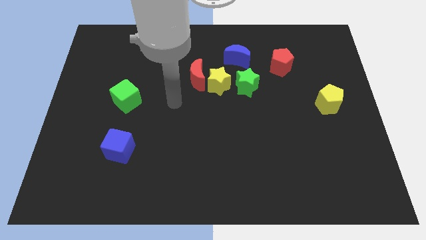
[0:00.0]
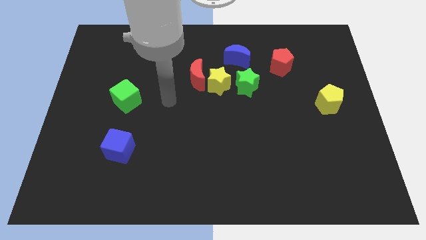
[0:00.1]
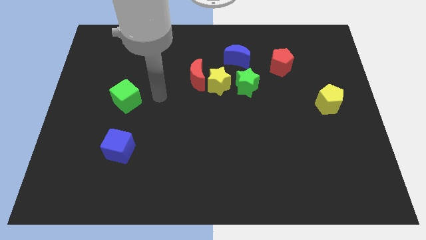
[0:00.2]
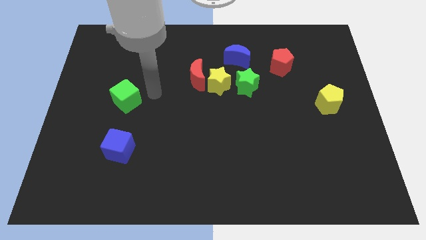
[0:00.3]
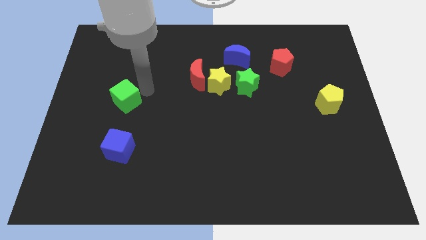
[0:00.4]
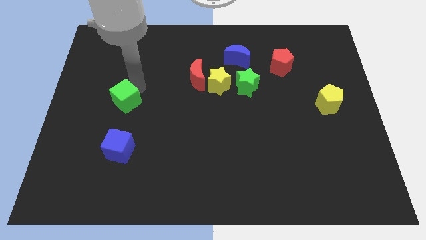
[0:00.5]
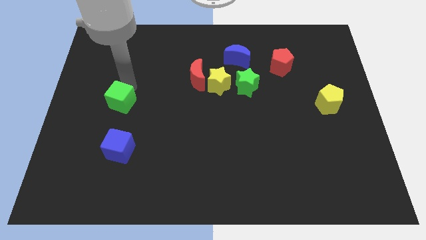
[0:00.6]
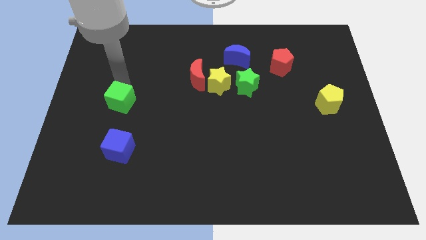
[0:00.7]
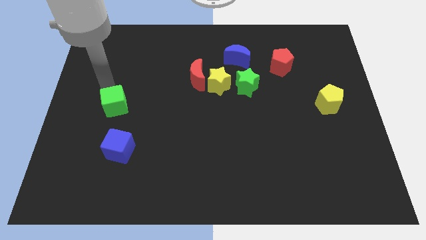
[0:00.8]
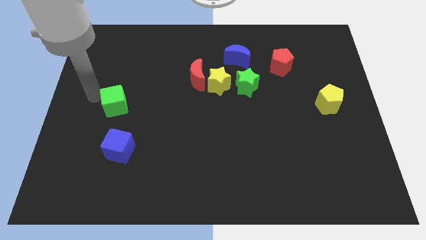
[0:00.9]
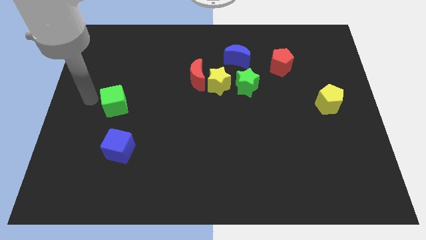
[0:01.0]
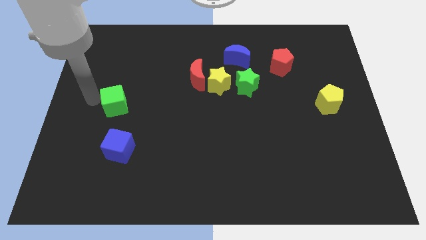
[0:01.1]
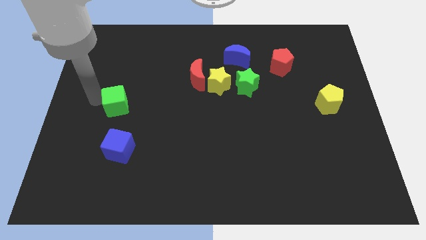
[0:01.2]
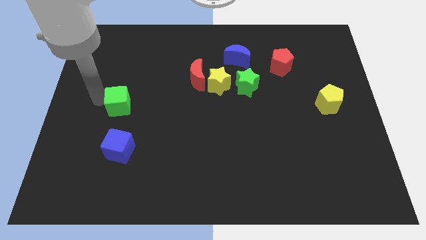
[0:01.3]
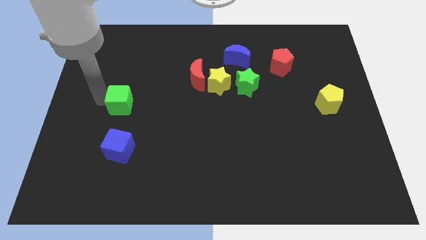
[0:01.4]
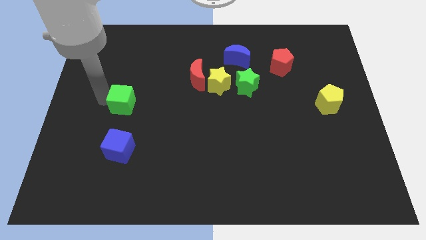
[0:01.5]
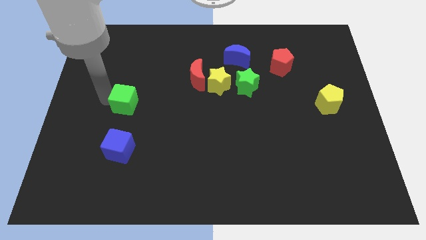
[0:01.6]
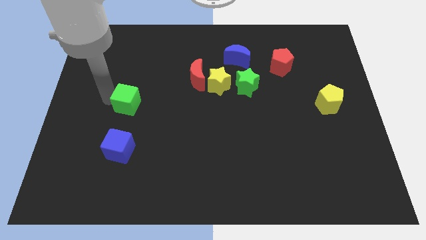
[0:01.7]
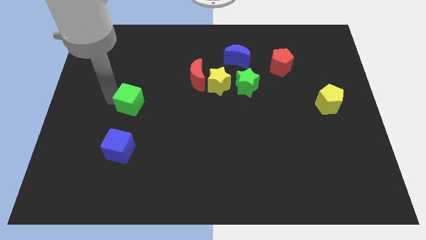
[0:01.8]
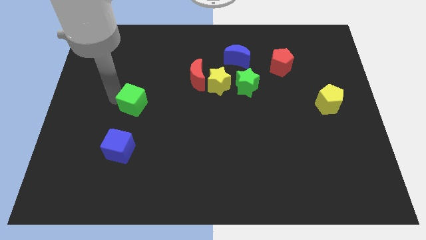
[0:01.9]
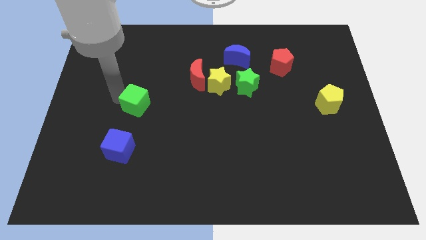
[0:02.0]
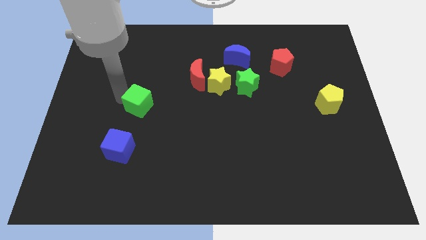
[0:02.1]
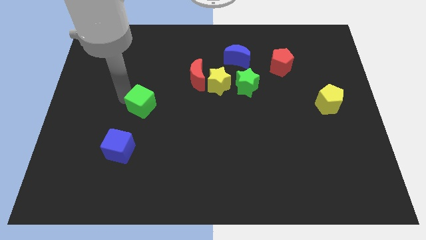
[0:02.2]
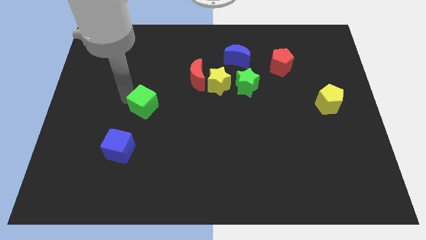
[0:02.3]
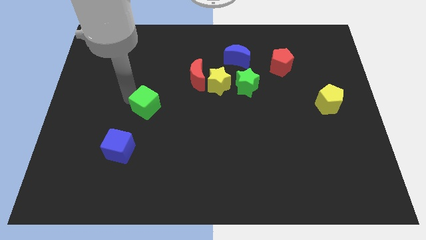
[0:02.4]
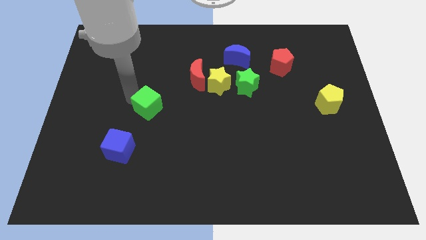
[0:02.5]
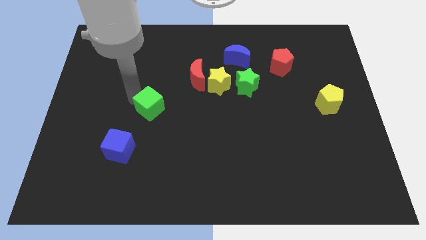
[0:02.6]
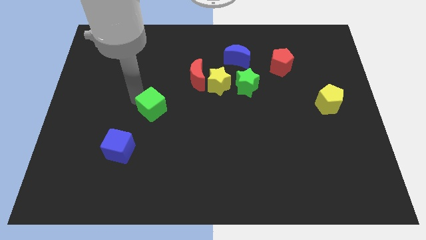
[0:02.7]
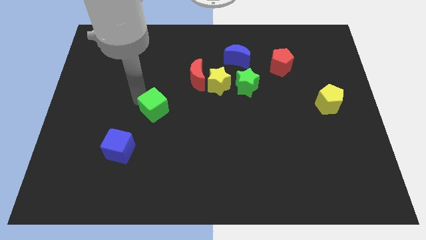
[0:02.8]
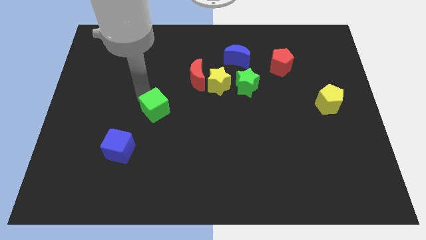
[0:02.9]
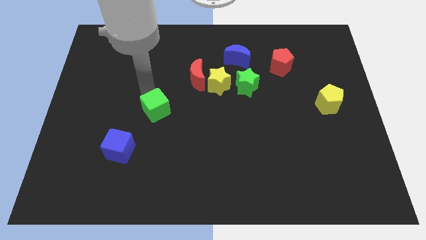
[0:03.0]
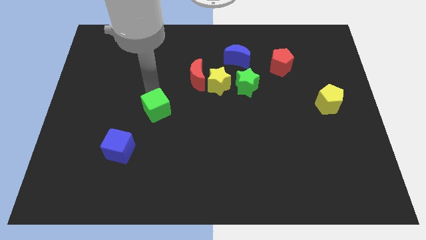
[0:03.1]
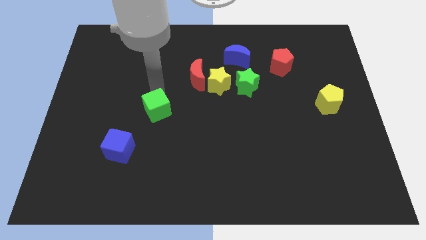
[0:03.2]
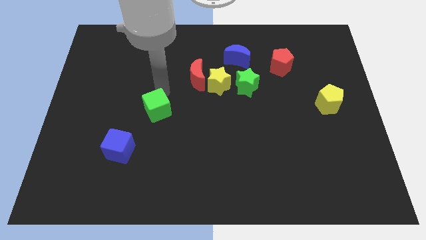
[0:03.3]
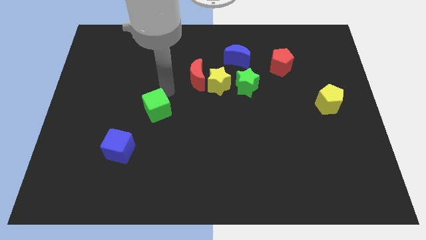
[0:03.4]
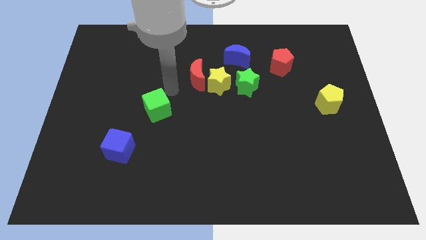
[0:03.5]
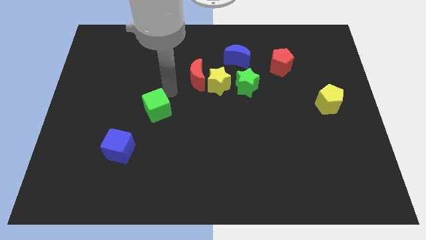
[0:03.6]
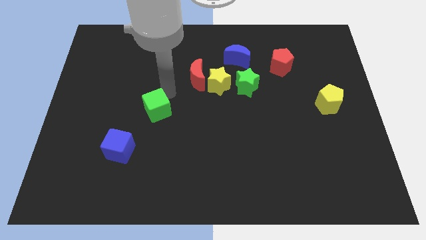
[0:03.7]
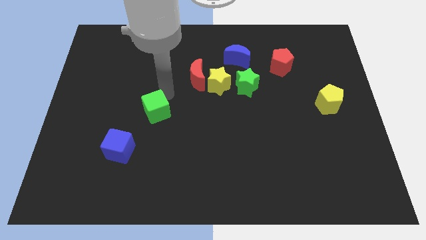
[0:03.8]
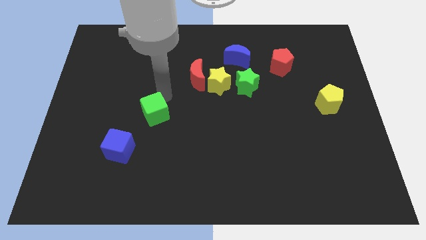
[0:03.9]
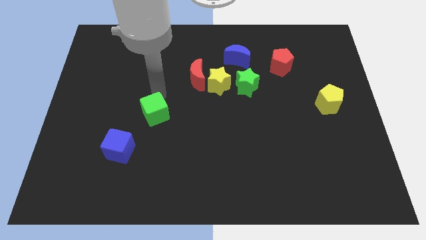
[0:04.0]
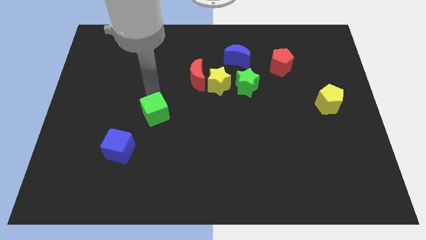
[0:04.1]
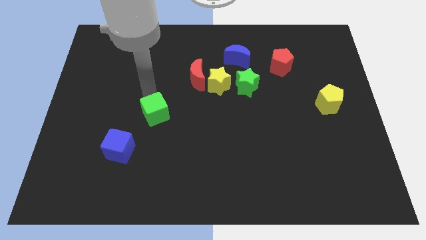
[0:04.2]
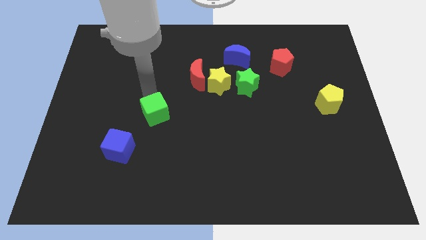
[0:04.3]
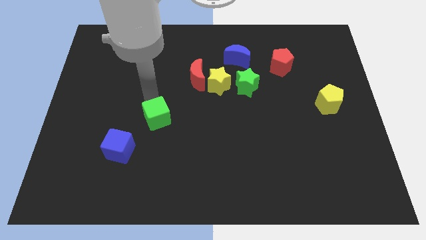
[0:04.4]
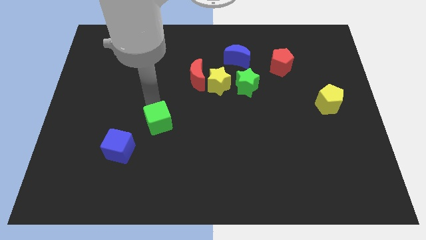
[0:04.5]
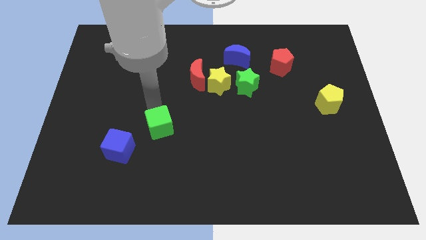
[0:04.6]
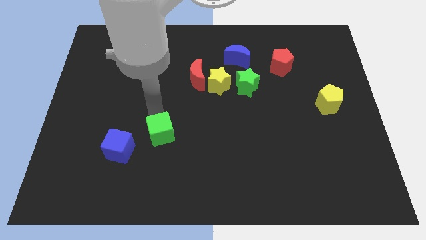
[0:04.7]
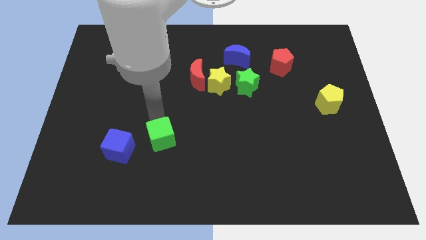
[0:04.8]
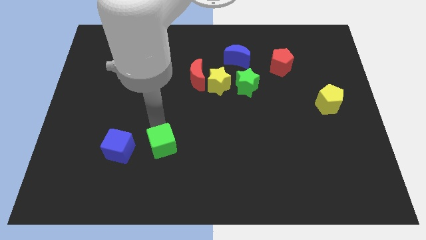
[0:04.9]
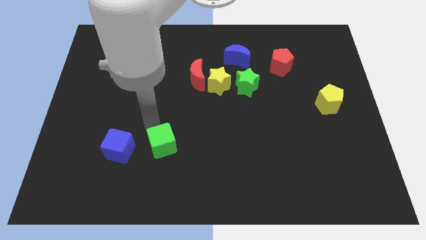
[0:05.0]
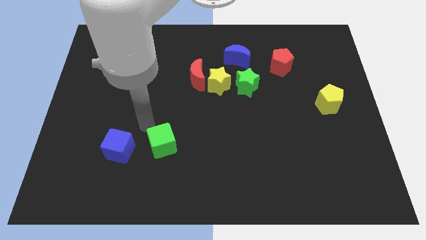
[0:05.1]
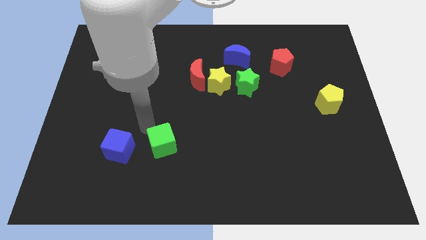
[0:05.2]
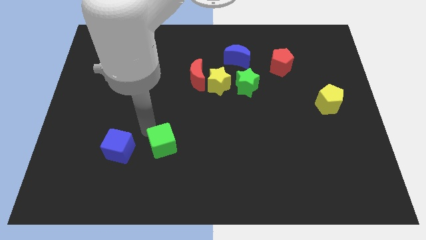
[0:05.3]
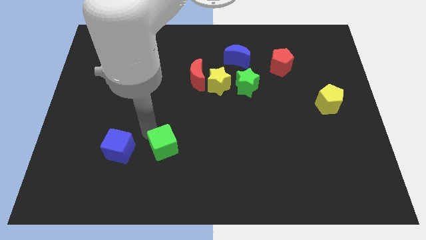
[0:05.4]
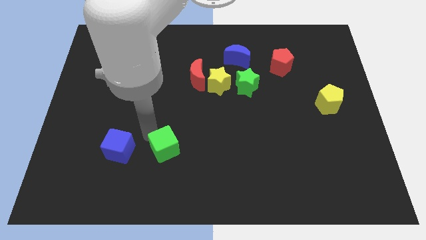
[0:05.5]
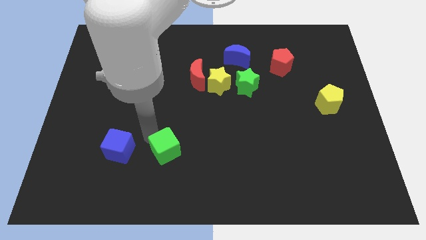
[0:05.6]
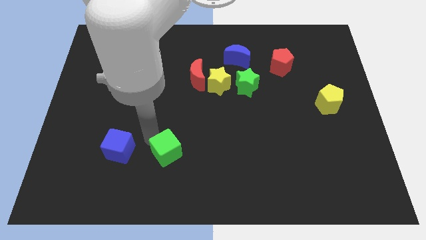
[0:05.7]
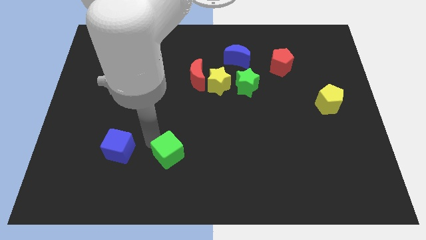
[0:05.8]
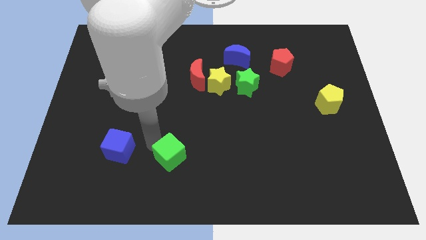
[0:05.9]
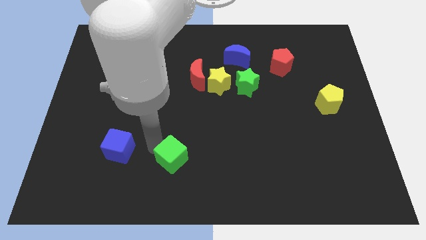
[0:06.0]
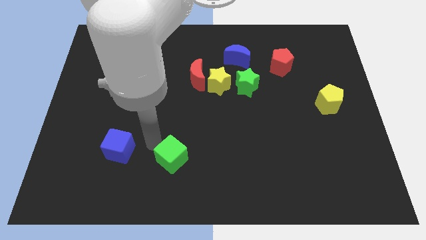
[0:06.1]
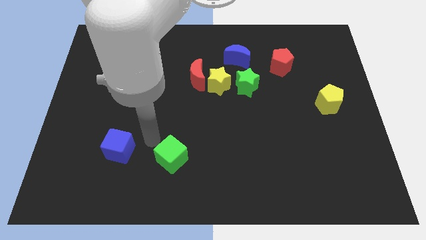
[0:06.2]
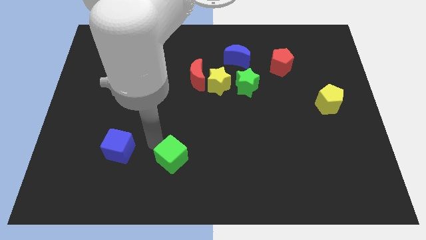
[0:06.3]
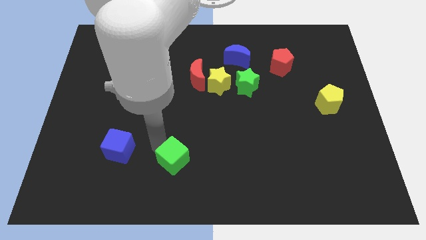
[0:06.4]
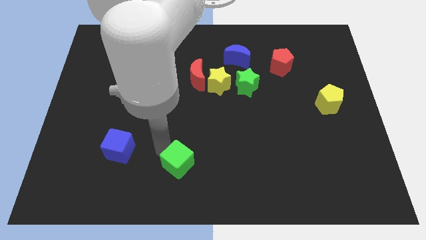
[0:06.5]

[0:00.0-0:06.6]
put the green cube to the bottom side
